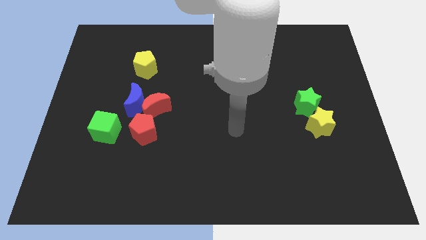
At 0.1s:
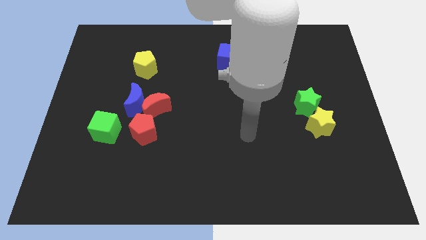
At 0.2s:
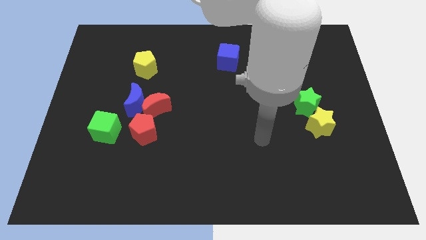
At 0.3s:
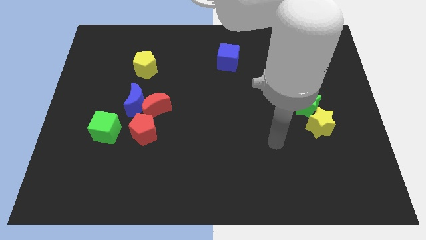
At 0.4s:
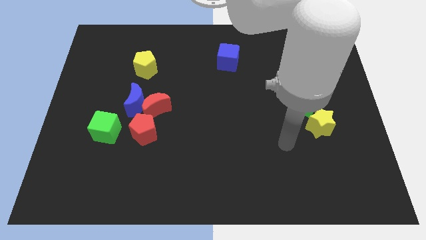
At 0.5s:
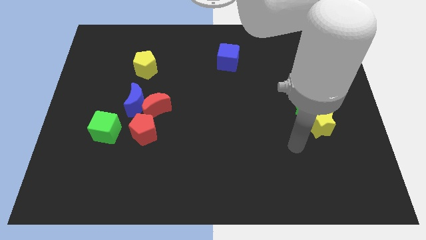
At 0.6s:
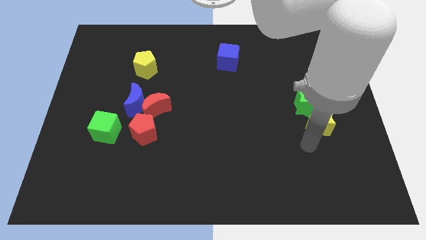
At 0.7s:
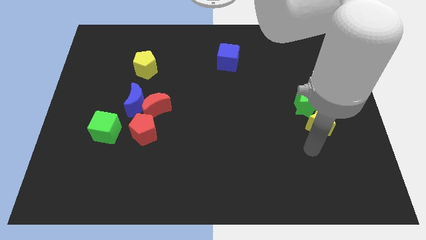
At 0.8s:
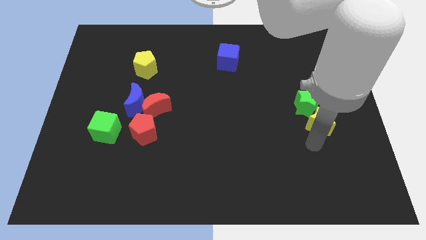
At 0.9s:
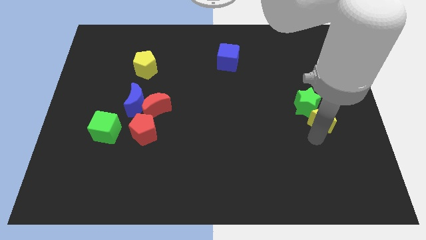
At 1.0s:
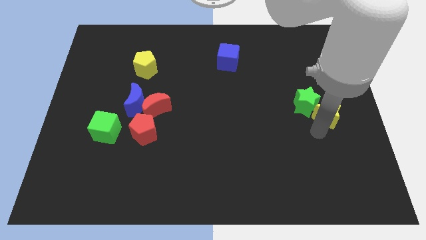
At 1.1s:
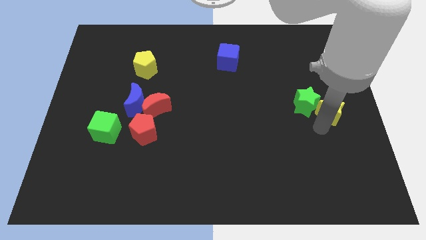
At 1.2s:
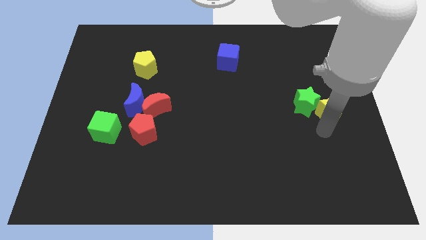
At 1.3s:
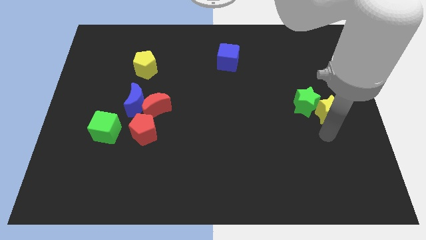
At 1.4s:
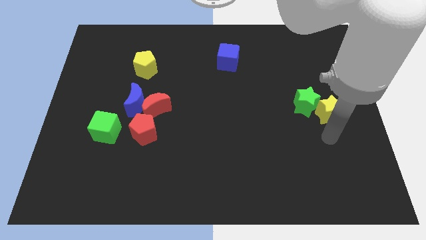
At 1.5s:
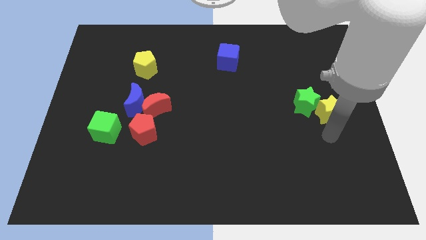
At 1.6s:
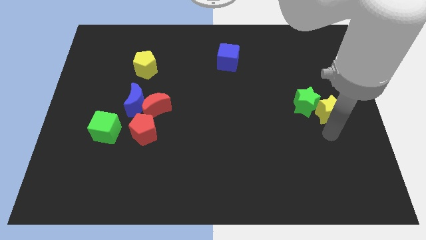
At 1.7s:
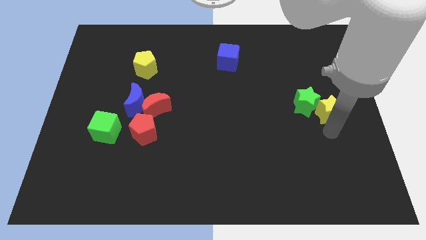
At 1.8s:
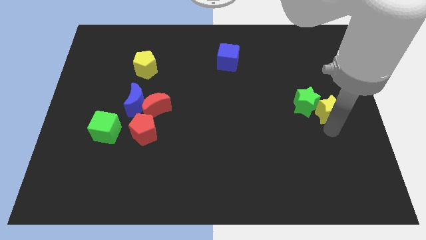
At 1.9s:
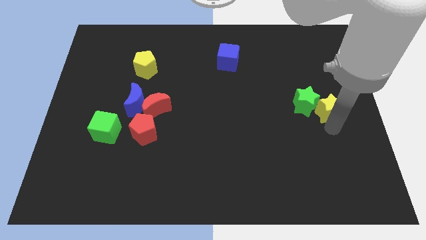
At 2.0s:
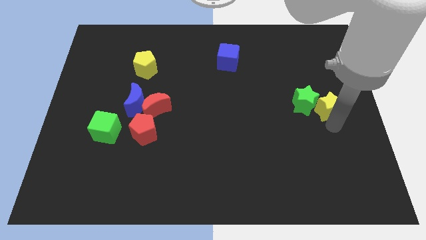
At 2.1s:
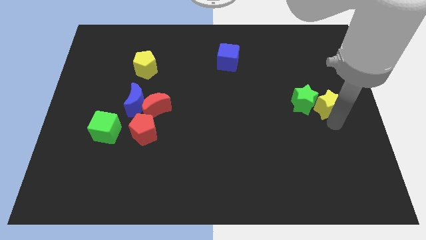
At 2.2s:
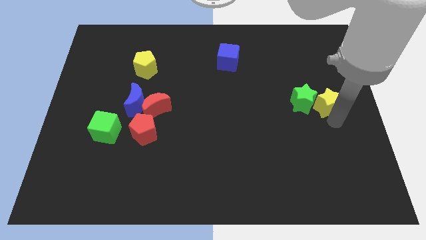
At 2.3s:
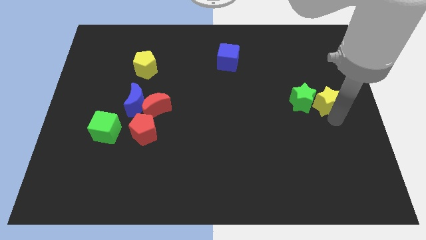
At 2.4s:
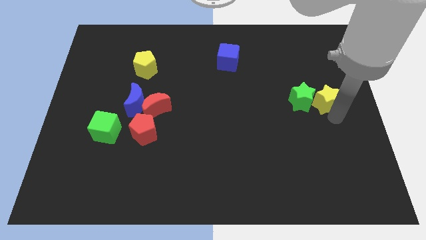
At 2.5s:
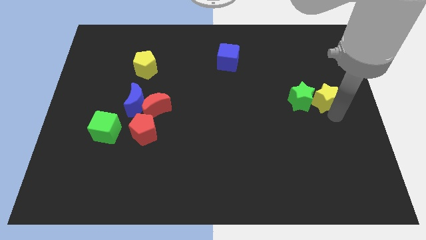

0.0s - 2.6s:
push the yellow star slightly upwards

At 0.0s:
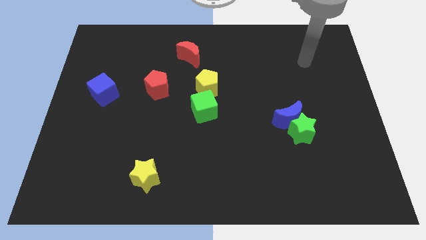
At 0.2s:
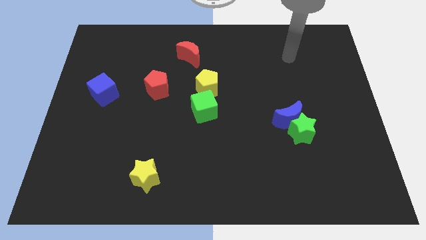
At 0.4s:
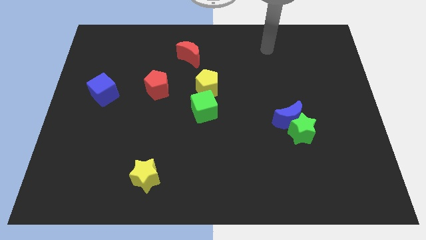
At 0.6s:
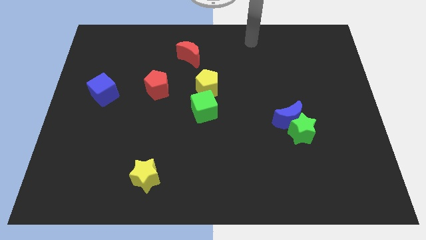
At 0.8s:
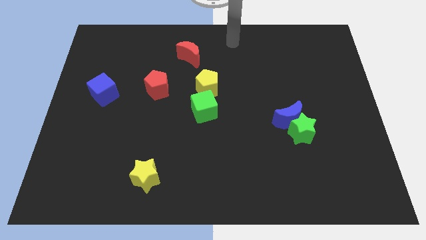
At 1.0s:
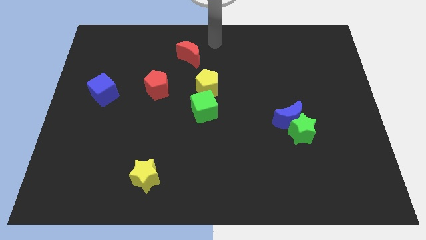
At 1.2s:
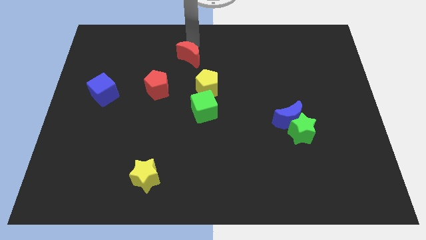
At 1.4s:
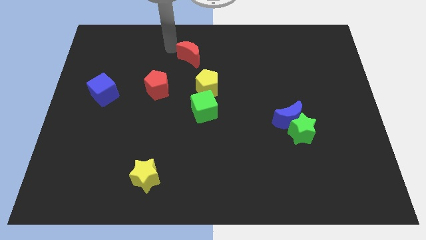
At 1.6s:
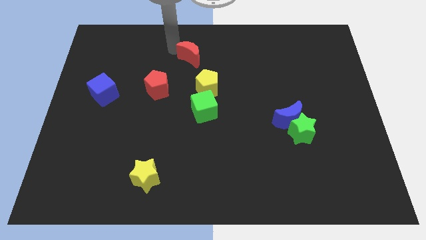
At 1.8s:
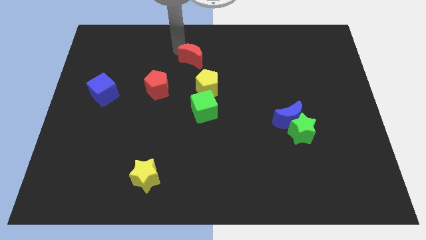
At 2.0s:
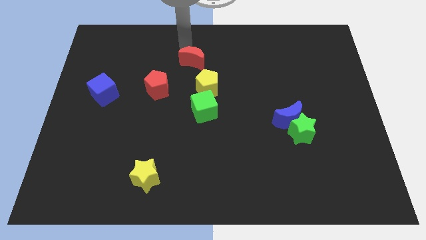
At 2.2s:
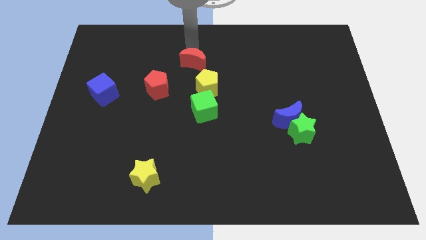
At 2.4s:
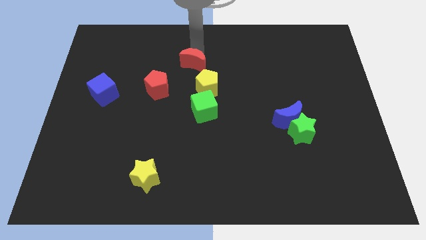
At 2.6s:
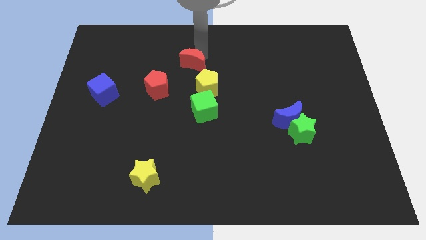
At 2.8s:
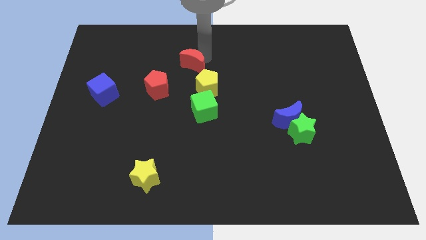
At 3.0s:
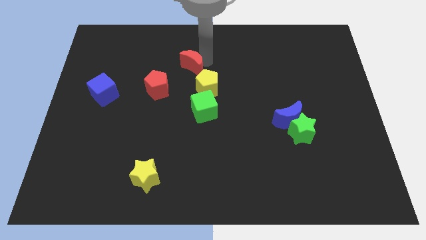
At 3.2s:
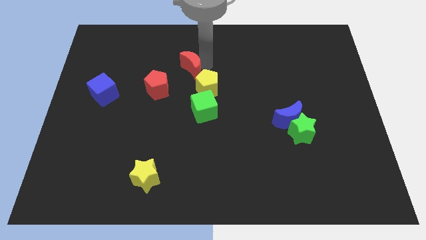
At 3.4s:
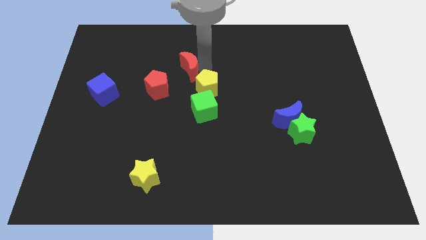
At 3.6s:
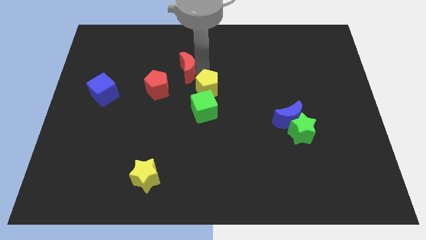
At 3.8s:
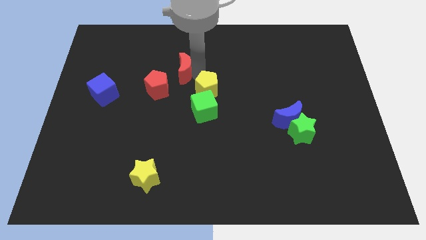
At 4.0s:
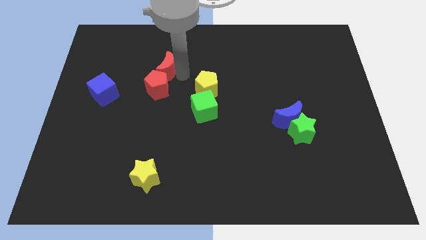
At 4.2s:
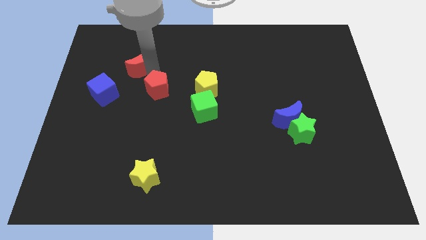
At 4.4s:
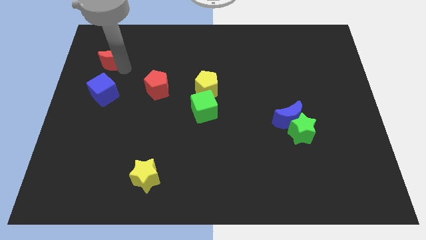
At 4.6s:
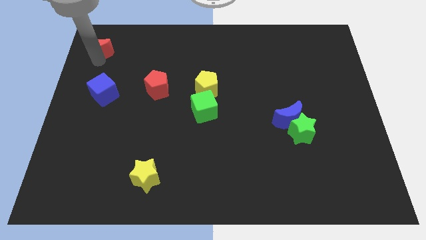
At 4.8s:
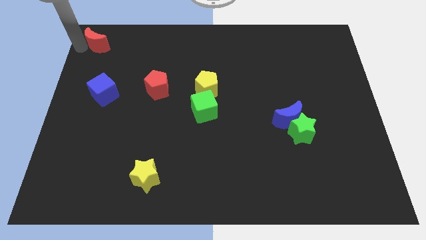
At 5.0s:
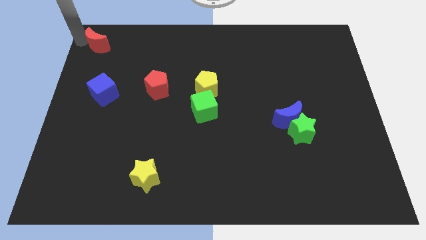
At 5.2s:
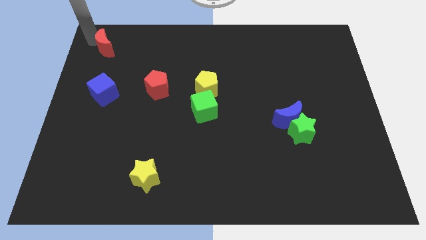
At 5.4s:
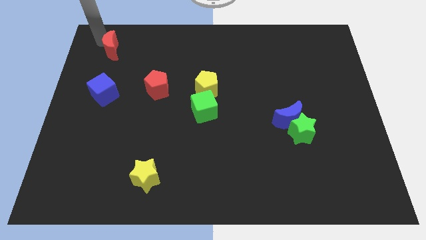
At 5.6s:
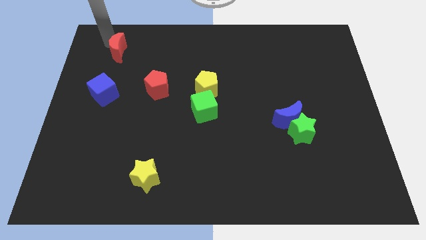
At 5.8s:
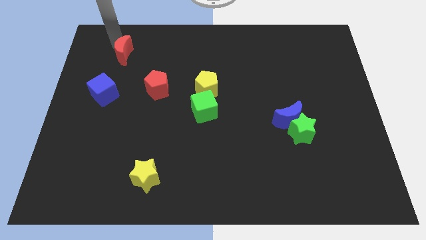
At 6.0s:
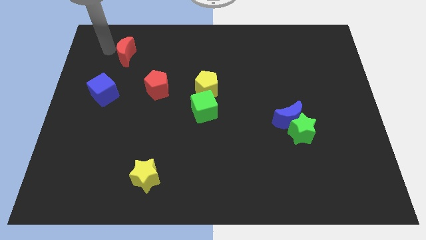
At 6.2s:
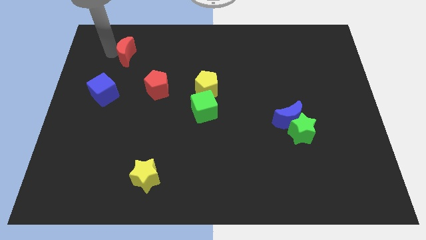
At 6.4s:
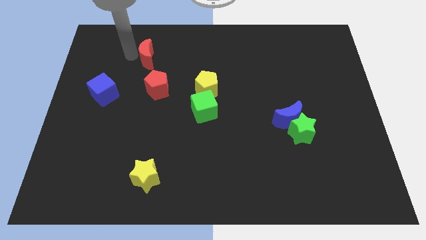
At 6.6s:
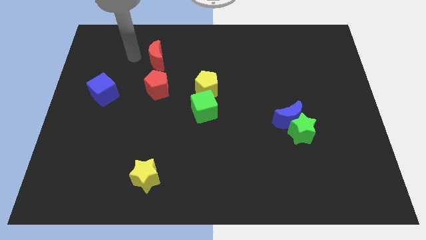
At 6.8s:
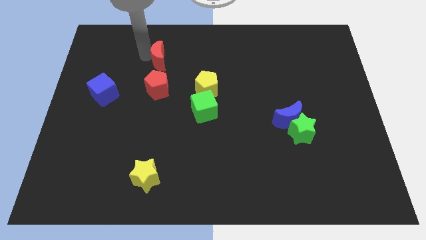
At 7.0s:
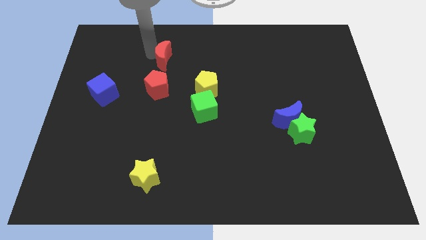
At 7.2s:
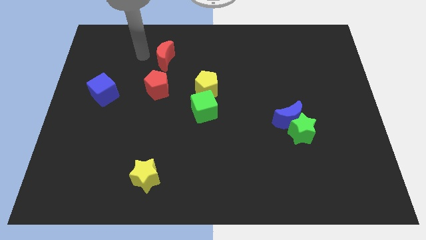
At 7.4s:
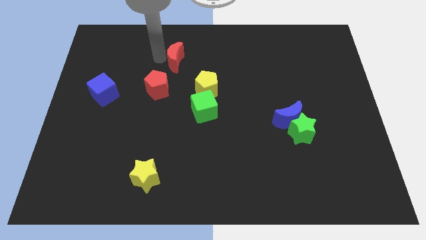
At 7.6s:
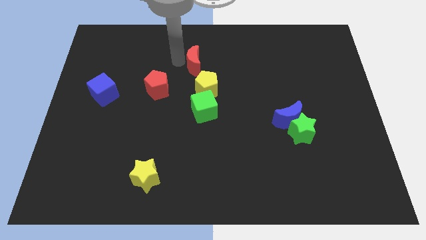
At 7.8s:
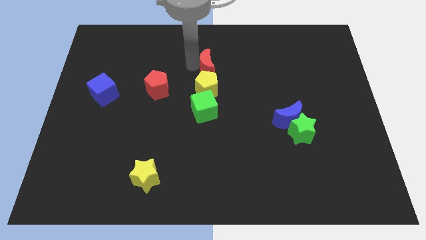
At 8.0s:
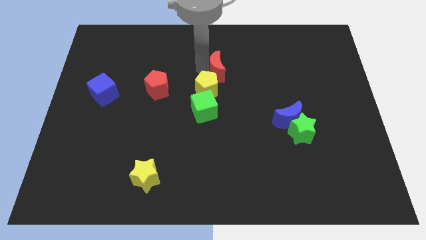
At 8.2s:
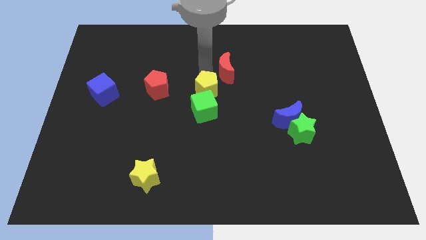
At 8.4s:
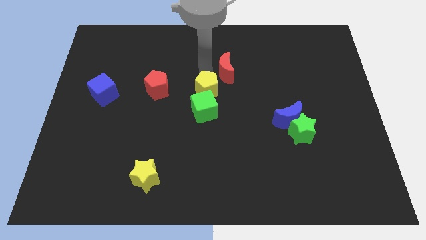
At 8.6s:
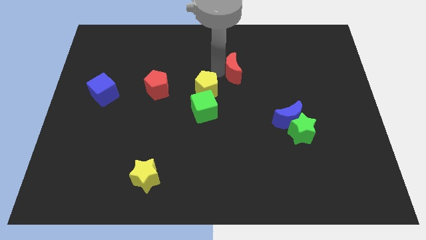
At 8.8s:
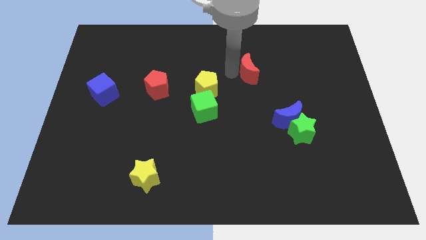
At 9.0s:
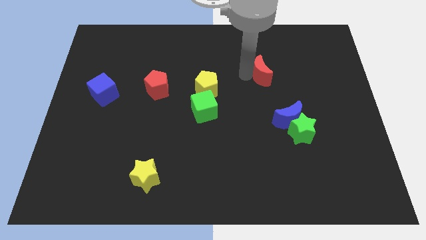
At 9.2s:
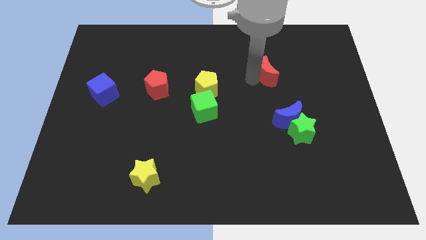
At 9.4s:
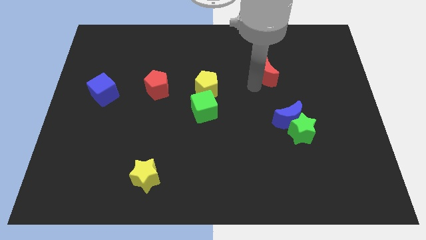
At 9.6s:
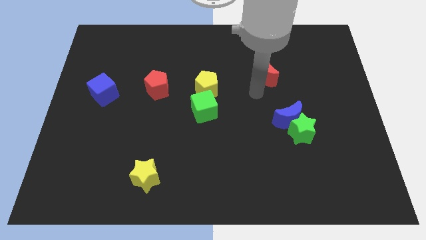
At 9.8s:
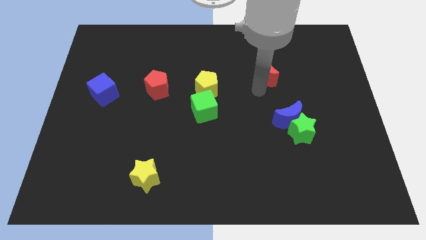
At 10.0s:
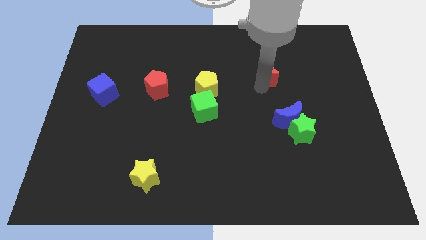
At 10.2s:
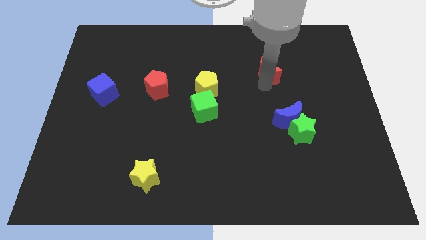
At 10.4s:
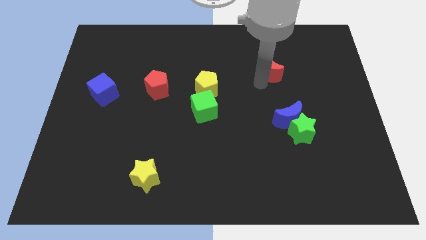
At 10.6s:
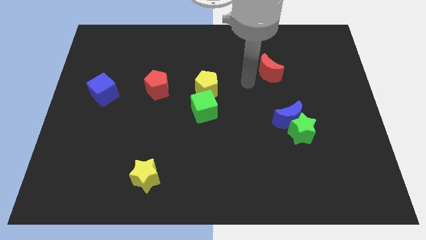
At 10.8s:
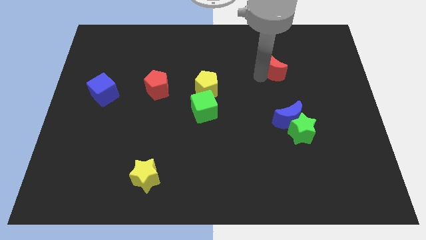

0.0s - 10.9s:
push the red moon to the right
